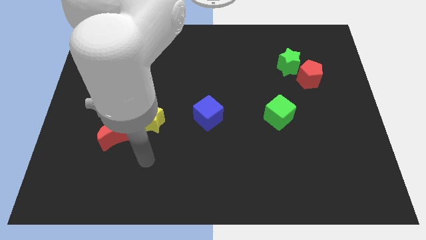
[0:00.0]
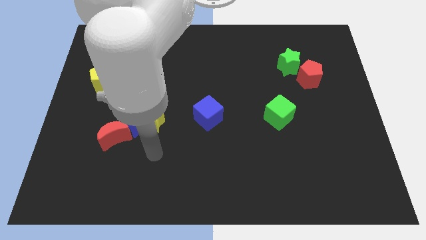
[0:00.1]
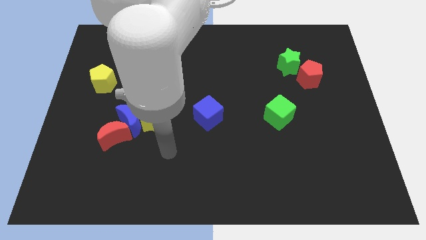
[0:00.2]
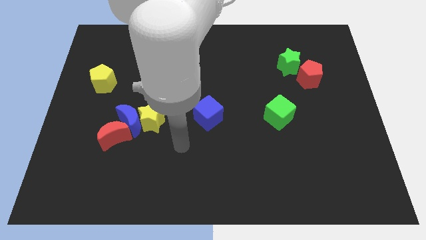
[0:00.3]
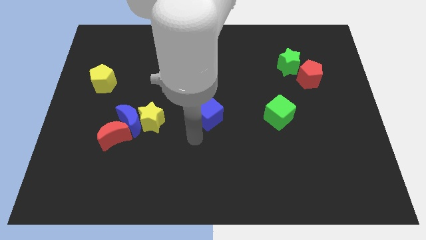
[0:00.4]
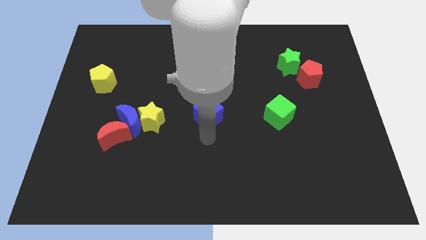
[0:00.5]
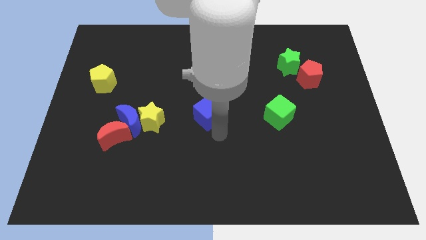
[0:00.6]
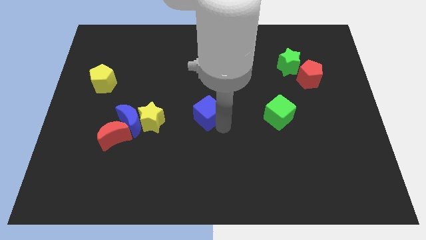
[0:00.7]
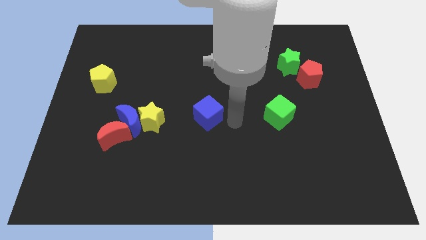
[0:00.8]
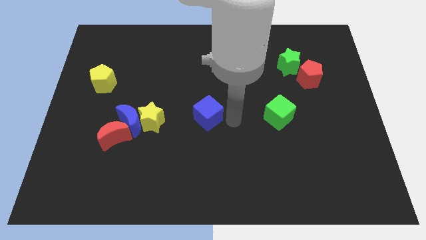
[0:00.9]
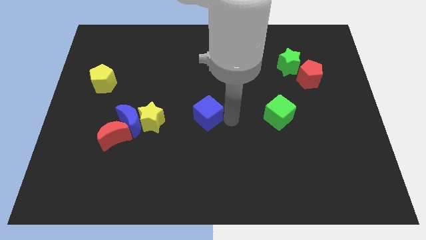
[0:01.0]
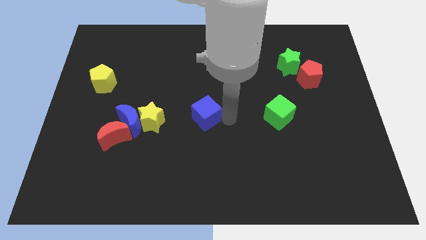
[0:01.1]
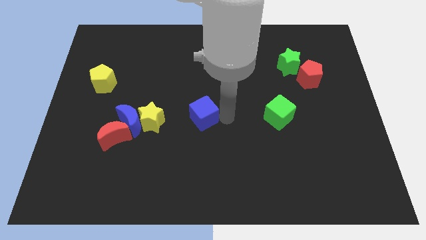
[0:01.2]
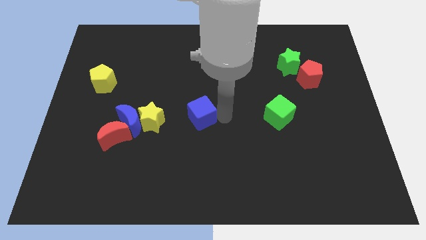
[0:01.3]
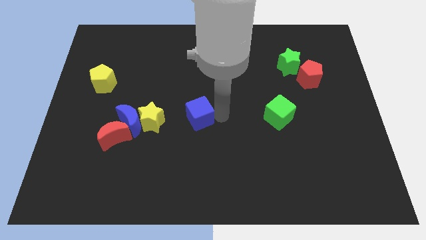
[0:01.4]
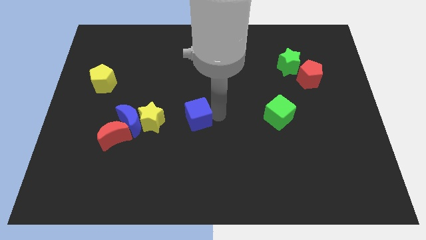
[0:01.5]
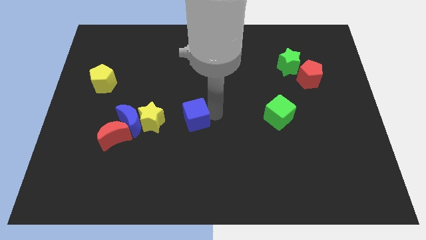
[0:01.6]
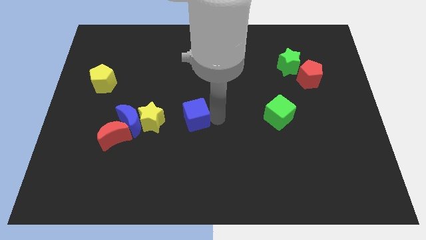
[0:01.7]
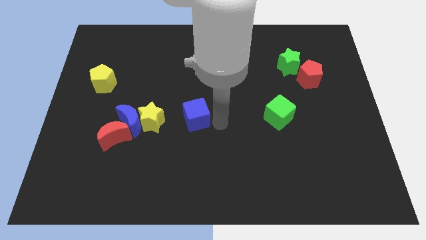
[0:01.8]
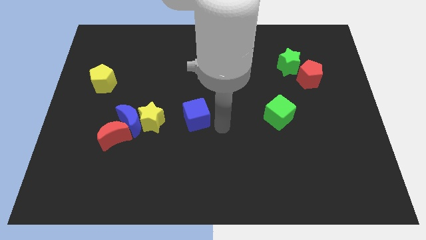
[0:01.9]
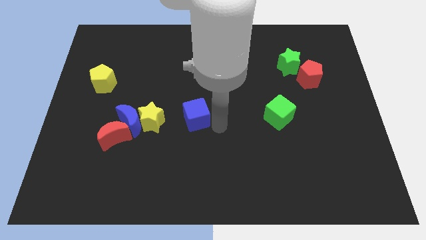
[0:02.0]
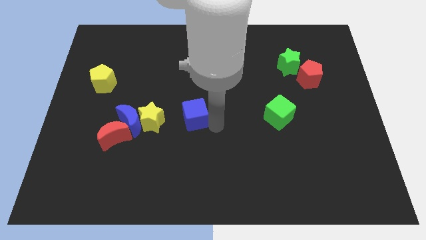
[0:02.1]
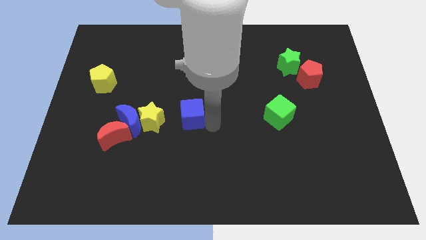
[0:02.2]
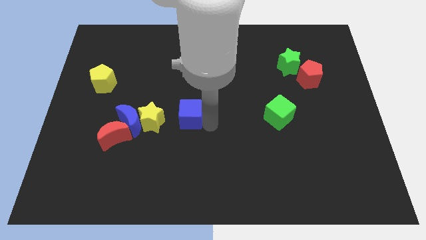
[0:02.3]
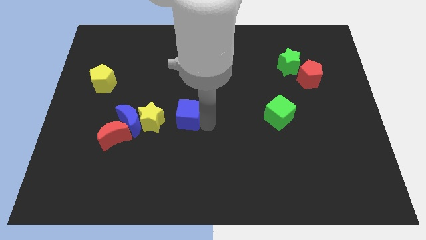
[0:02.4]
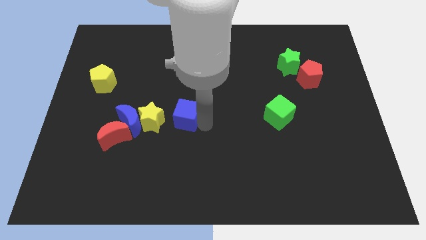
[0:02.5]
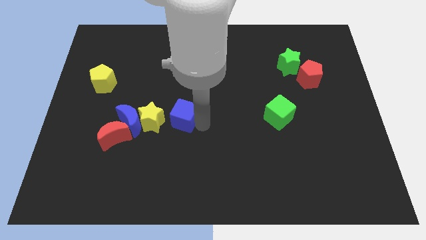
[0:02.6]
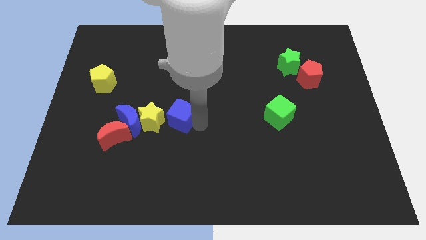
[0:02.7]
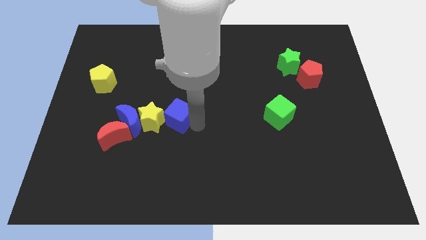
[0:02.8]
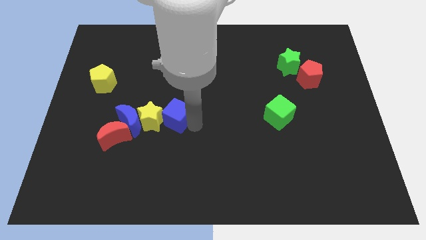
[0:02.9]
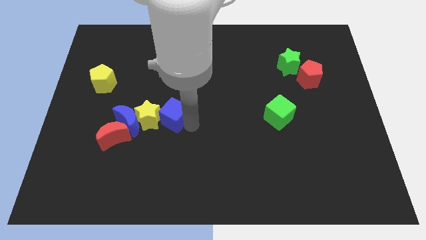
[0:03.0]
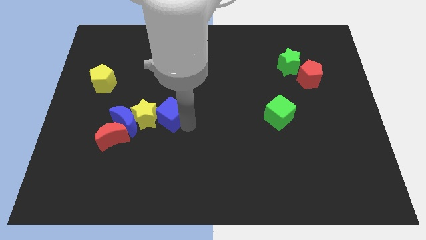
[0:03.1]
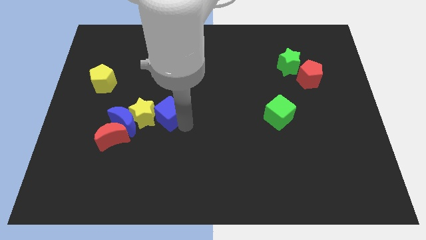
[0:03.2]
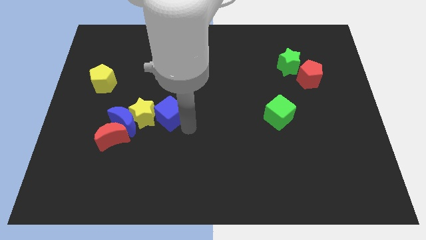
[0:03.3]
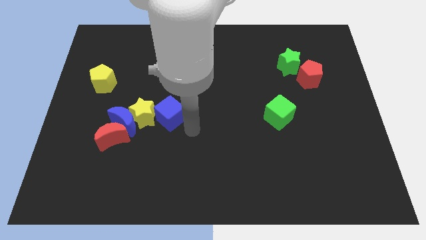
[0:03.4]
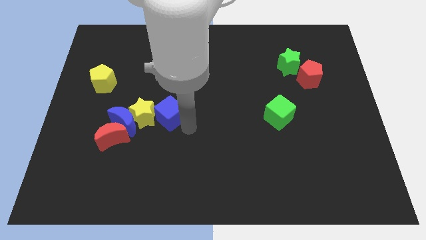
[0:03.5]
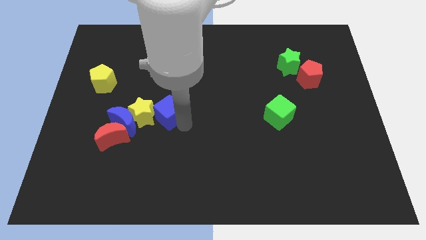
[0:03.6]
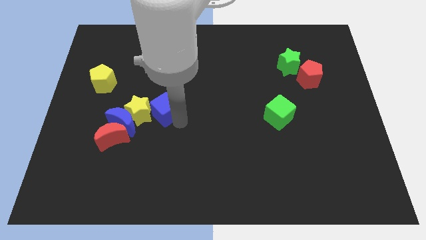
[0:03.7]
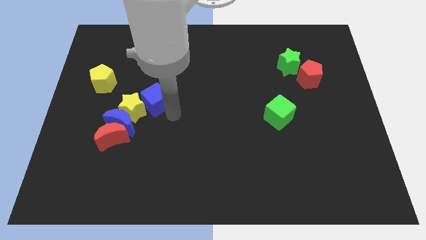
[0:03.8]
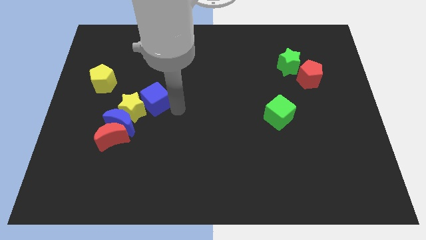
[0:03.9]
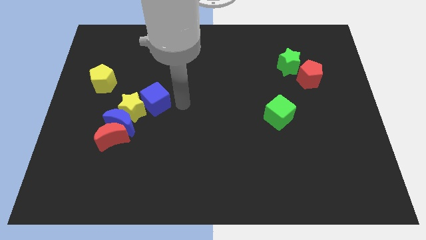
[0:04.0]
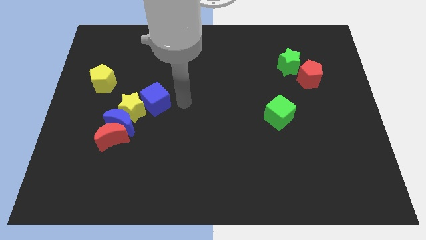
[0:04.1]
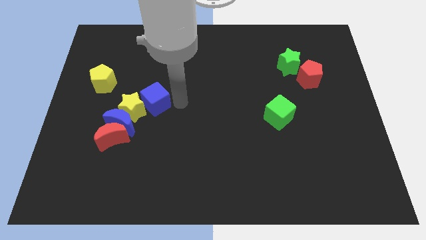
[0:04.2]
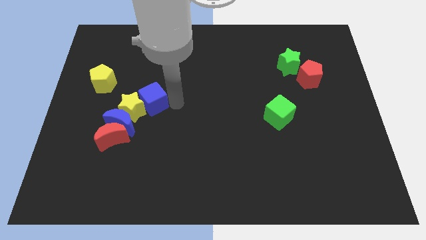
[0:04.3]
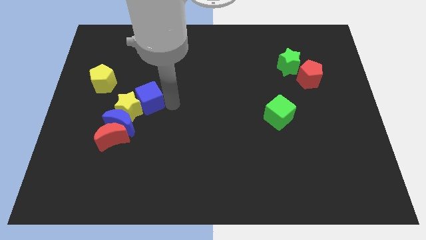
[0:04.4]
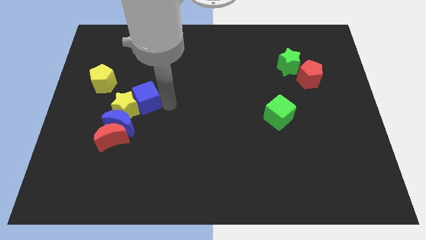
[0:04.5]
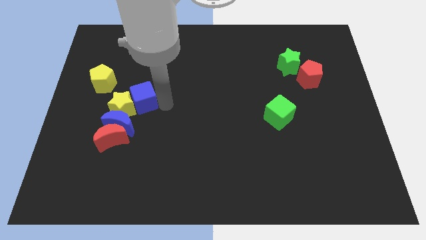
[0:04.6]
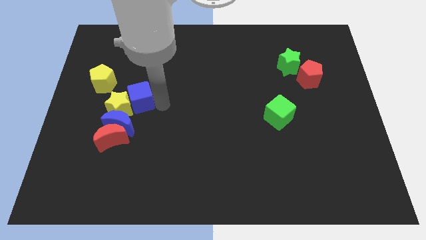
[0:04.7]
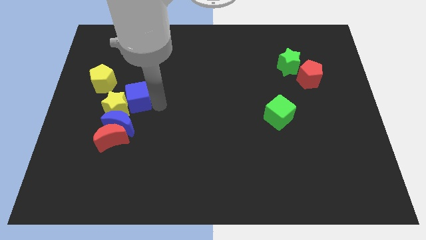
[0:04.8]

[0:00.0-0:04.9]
slide the blue cube to the top side of the red moon

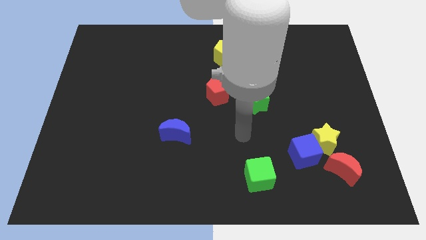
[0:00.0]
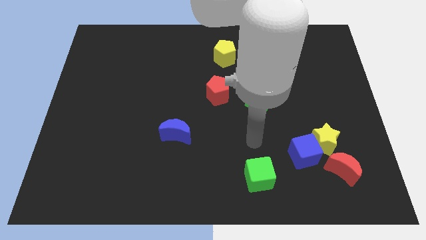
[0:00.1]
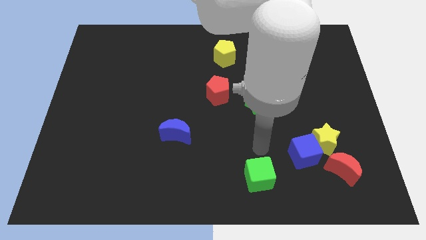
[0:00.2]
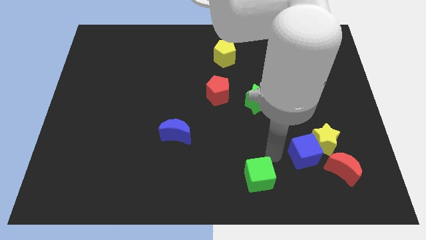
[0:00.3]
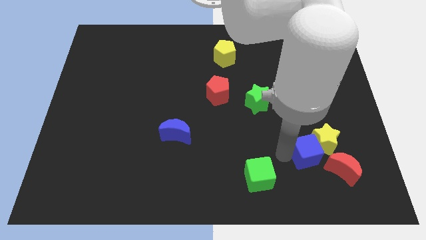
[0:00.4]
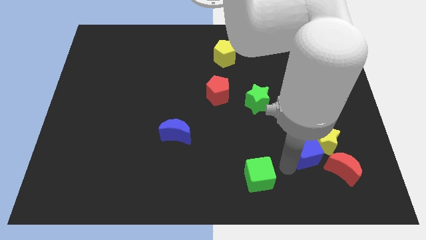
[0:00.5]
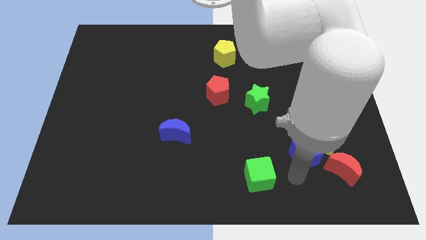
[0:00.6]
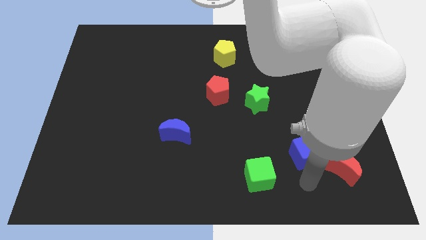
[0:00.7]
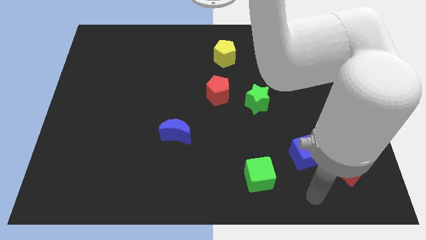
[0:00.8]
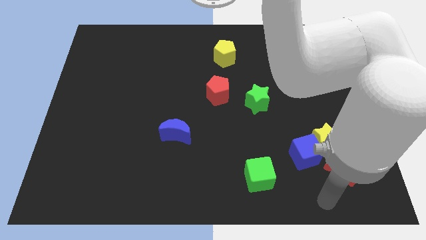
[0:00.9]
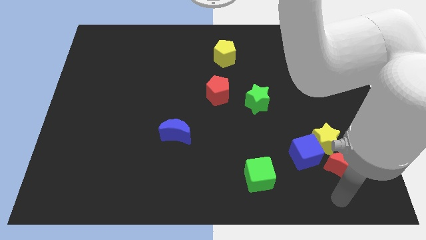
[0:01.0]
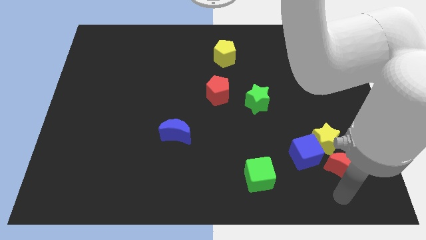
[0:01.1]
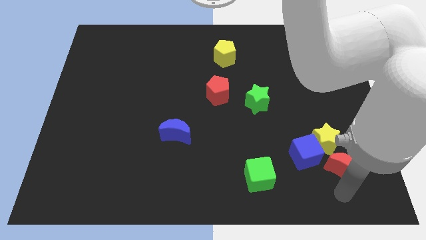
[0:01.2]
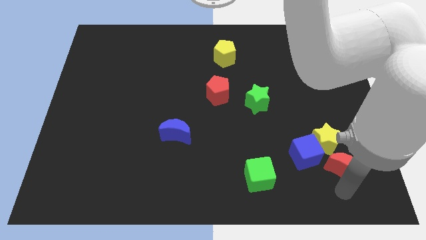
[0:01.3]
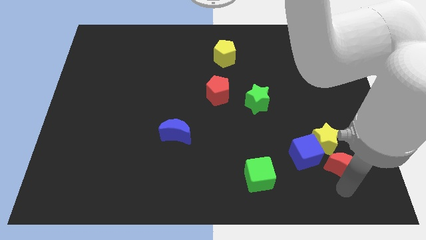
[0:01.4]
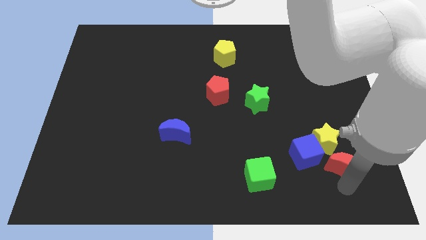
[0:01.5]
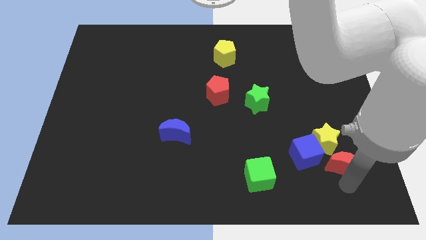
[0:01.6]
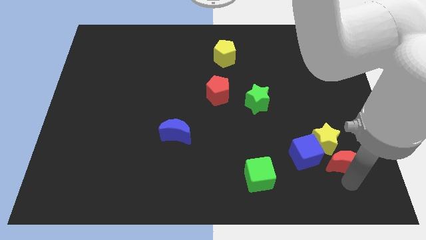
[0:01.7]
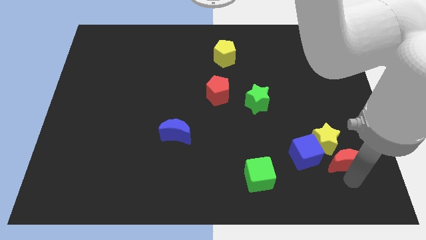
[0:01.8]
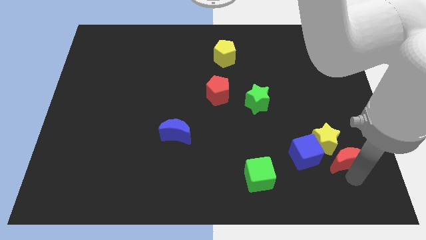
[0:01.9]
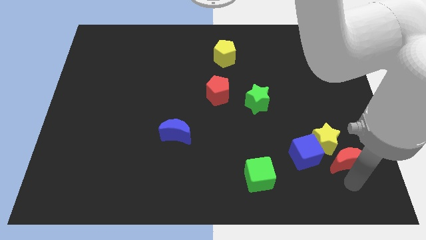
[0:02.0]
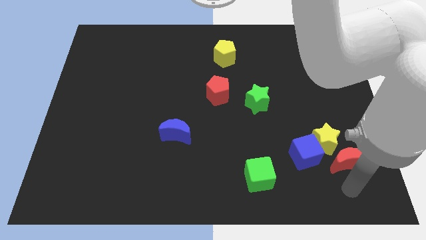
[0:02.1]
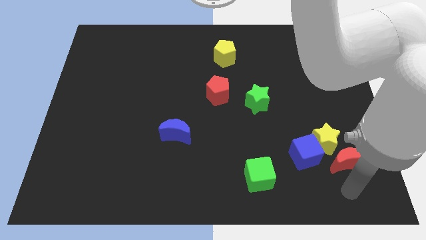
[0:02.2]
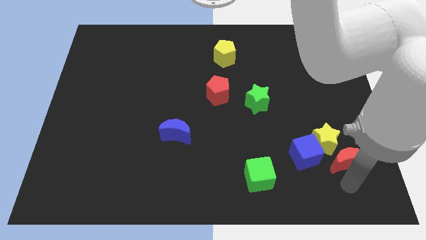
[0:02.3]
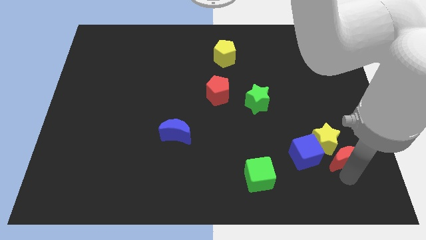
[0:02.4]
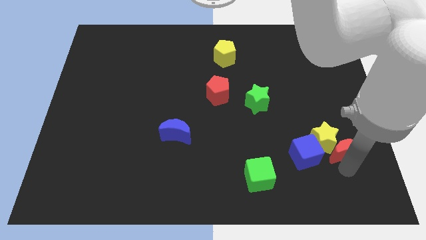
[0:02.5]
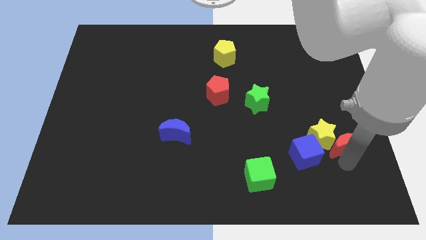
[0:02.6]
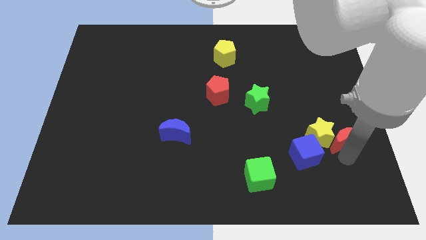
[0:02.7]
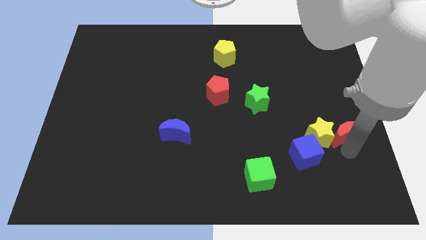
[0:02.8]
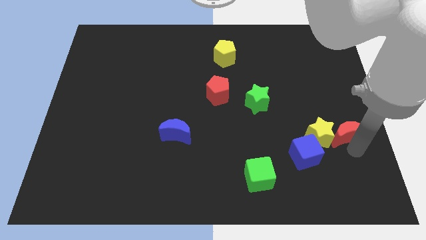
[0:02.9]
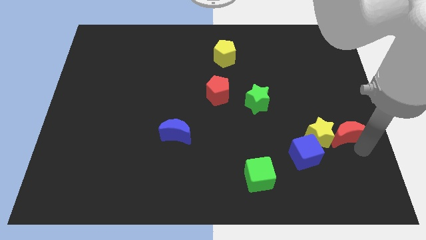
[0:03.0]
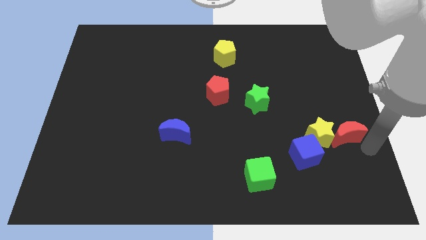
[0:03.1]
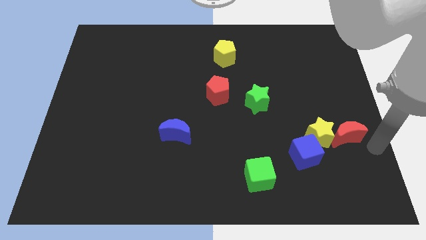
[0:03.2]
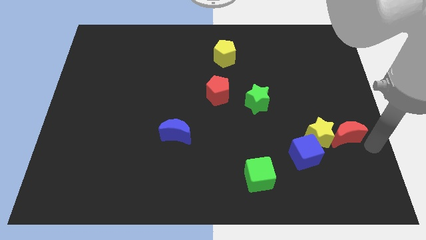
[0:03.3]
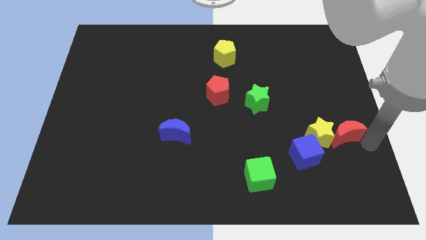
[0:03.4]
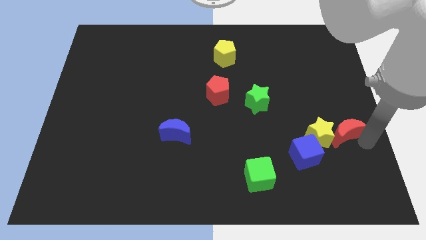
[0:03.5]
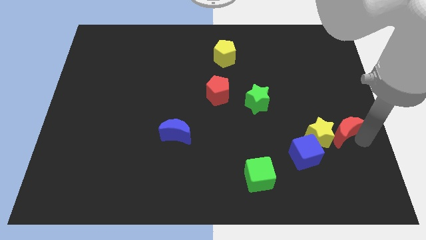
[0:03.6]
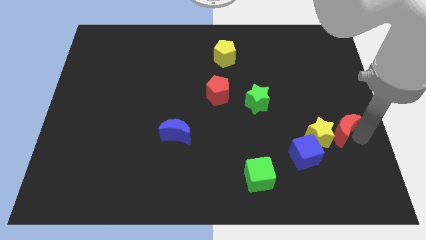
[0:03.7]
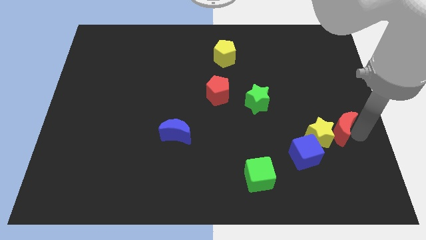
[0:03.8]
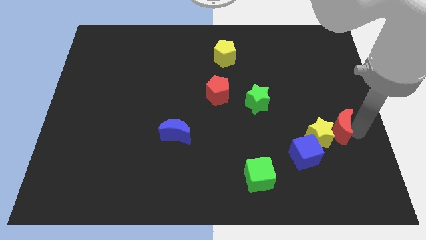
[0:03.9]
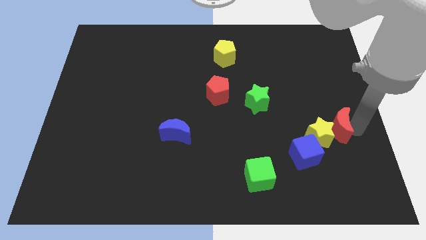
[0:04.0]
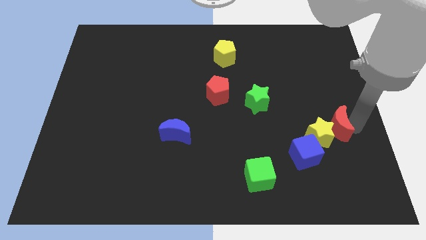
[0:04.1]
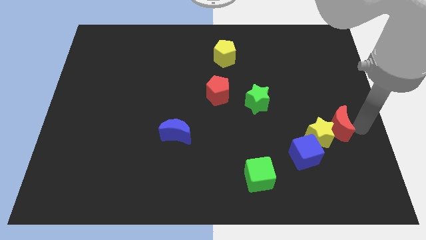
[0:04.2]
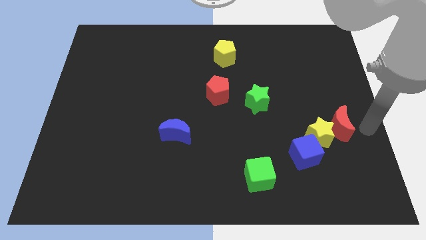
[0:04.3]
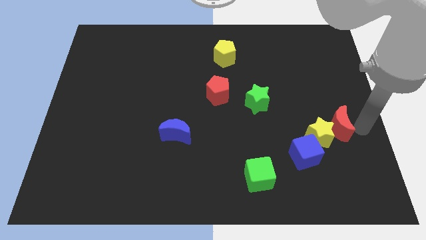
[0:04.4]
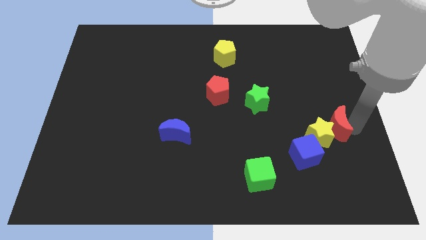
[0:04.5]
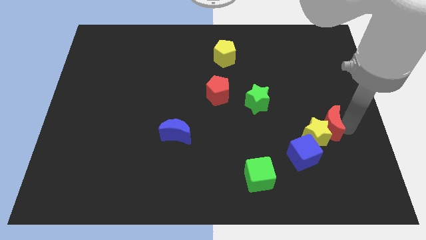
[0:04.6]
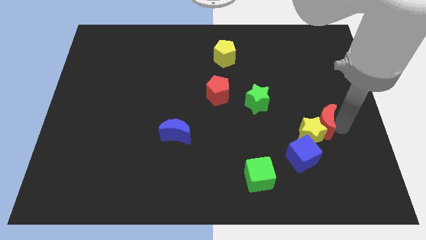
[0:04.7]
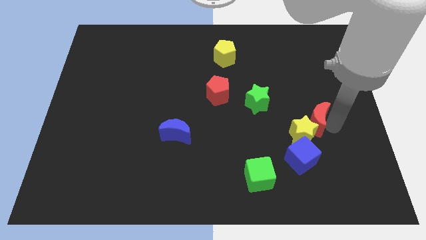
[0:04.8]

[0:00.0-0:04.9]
put the red moon to the top of the blue cube
